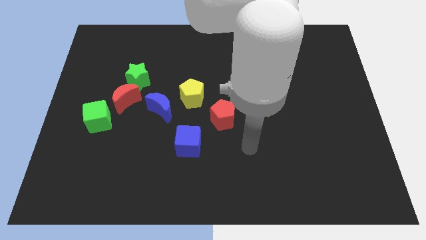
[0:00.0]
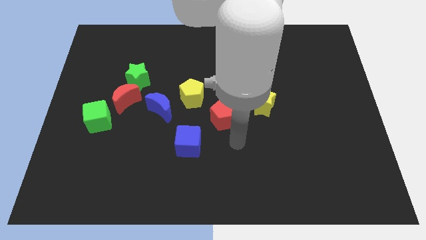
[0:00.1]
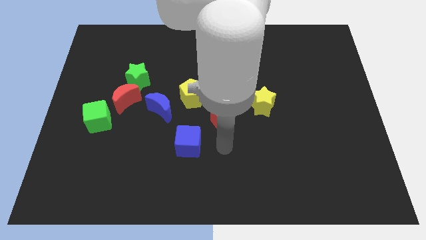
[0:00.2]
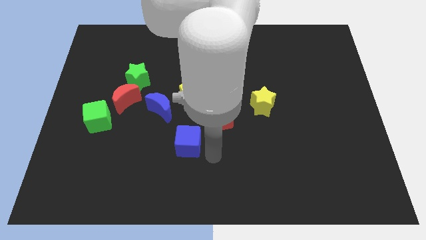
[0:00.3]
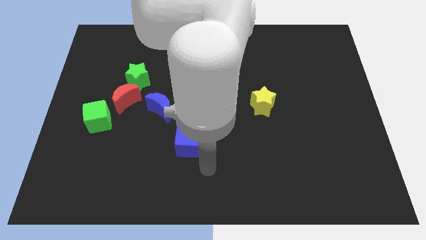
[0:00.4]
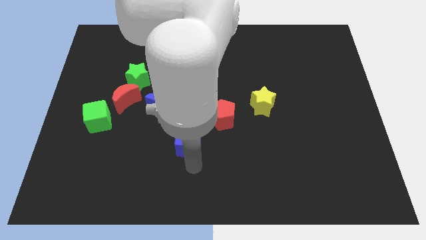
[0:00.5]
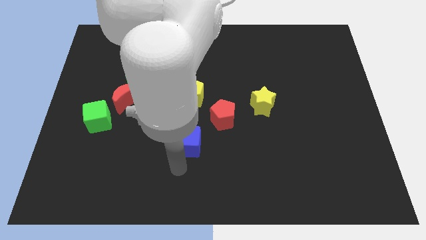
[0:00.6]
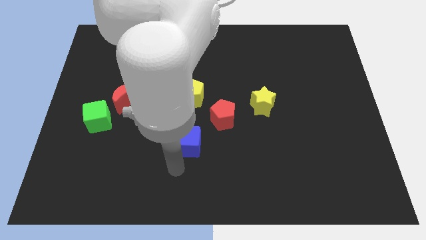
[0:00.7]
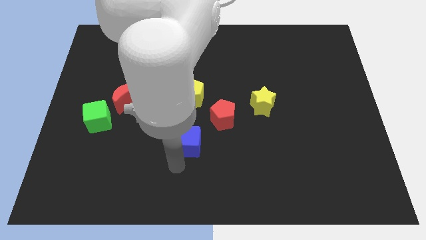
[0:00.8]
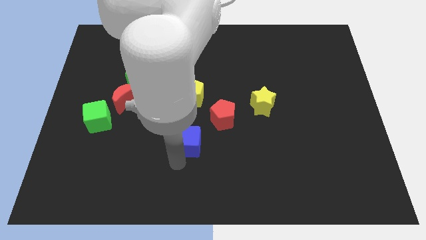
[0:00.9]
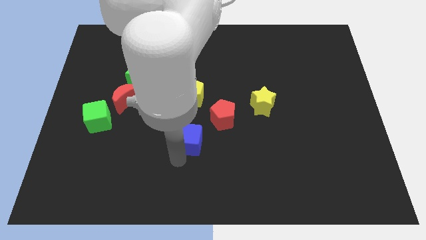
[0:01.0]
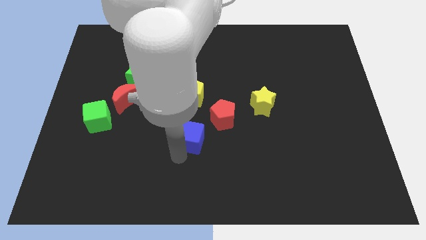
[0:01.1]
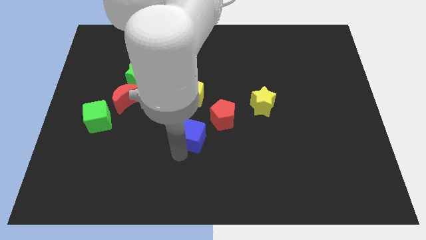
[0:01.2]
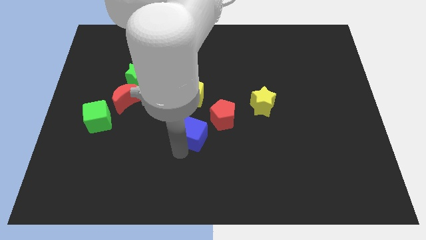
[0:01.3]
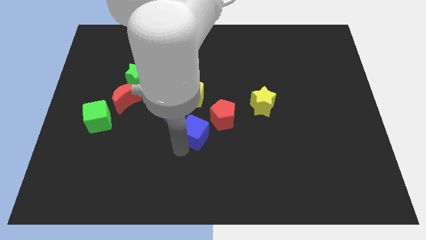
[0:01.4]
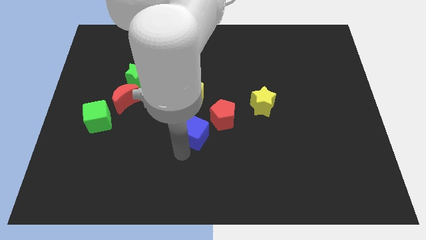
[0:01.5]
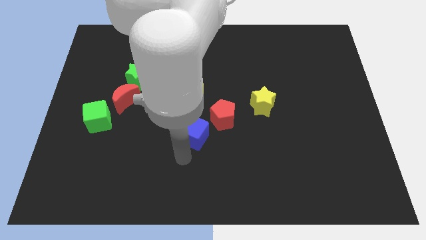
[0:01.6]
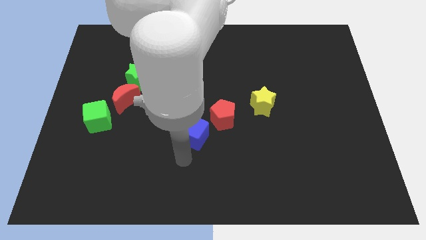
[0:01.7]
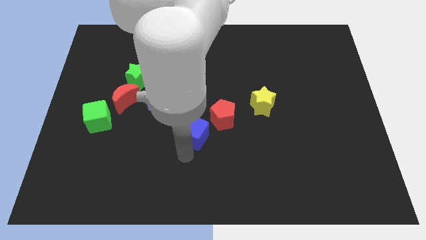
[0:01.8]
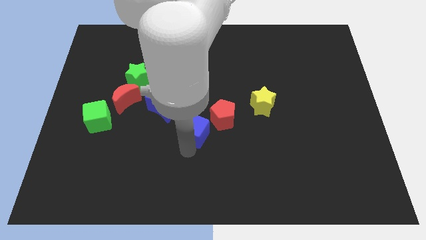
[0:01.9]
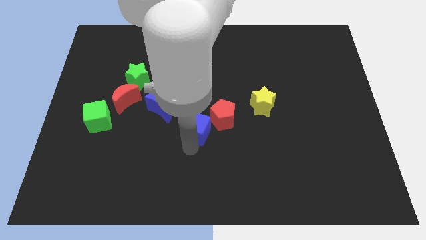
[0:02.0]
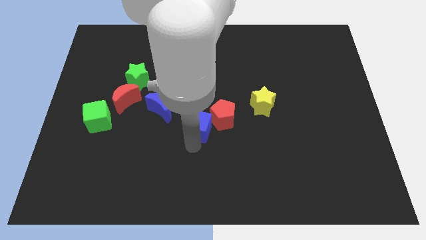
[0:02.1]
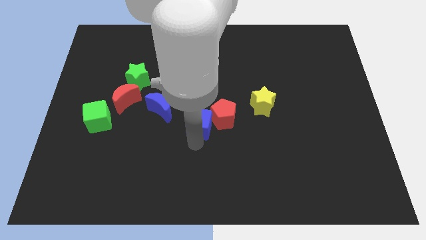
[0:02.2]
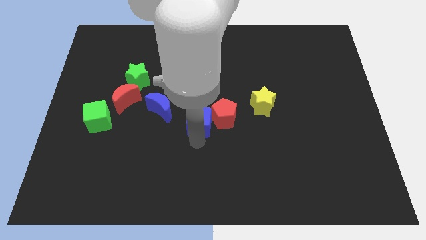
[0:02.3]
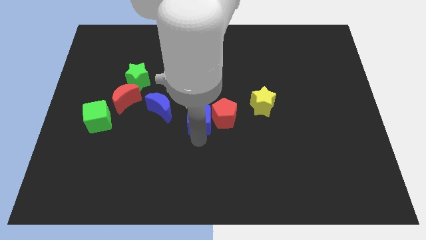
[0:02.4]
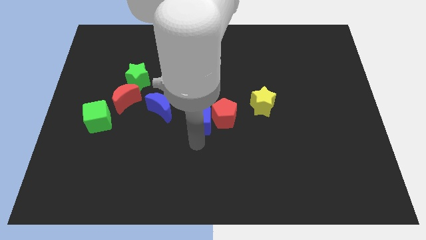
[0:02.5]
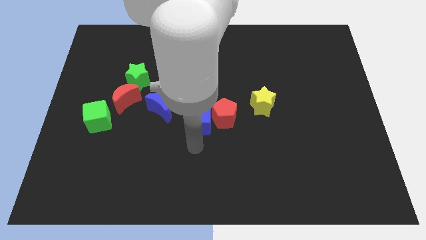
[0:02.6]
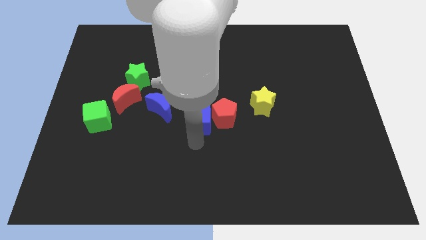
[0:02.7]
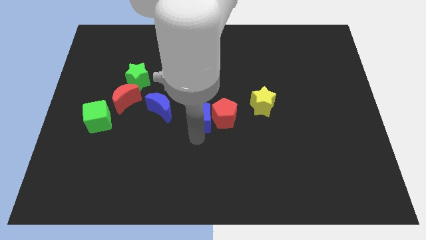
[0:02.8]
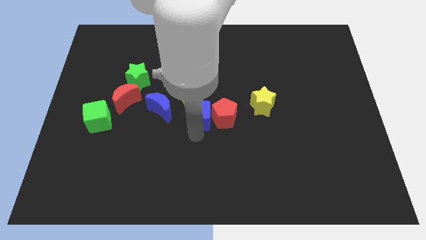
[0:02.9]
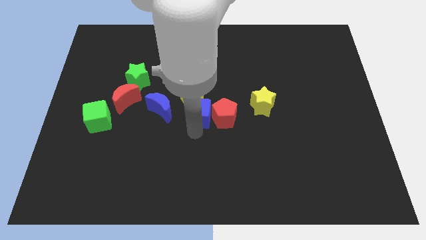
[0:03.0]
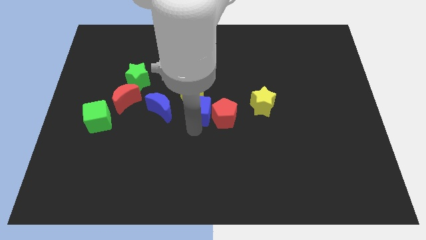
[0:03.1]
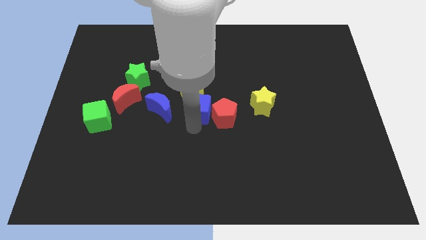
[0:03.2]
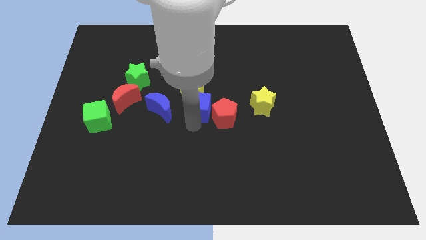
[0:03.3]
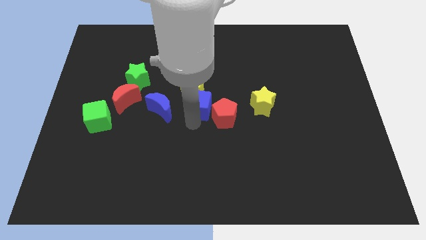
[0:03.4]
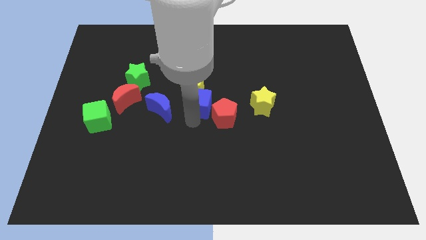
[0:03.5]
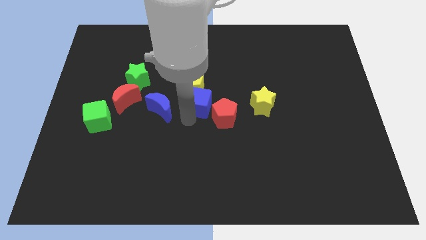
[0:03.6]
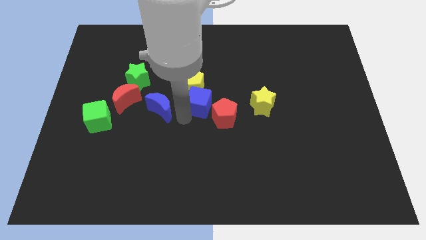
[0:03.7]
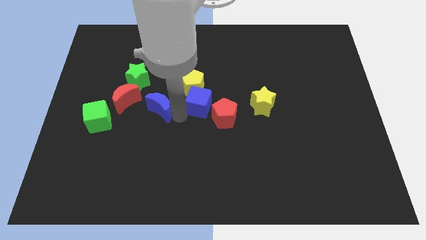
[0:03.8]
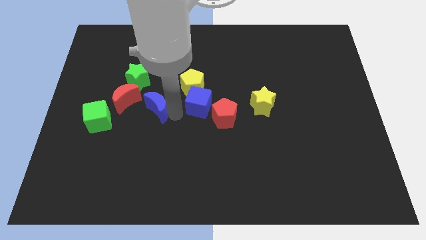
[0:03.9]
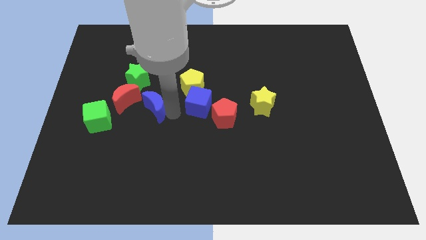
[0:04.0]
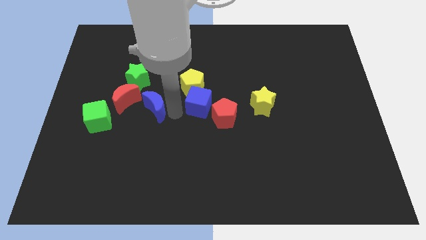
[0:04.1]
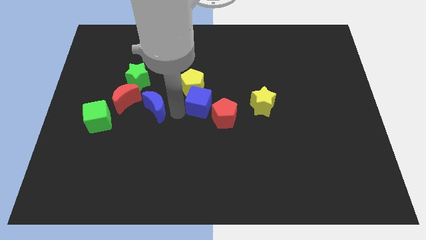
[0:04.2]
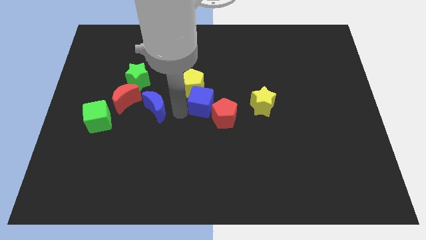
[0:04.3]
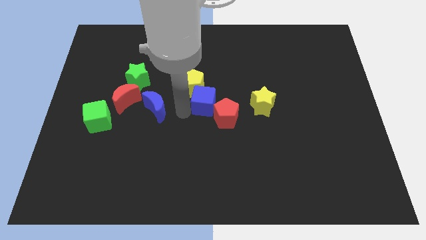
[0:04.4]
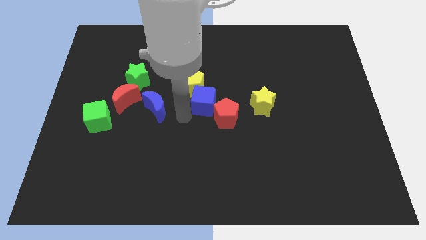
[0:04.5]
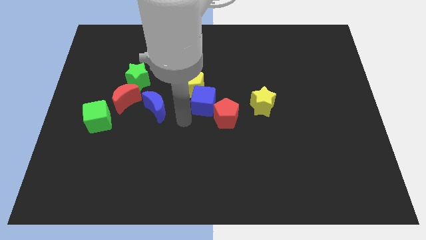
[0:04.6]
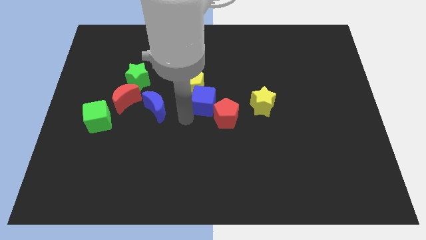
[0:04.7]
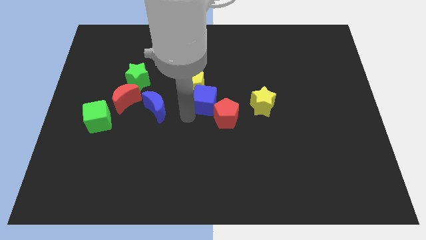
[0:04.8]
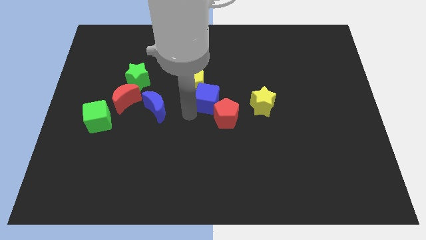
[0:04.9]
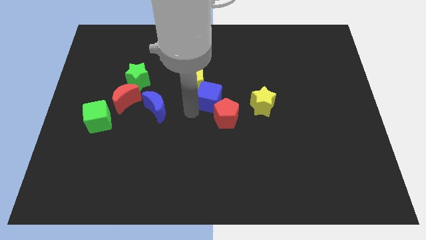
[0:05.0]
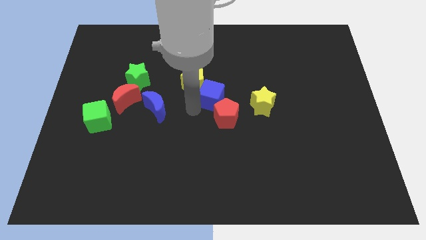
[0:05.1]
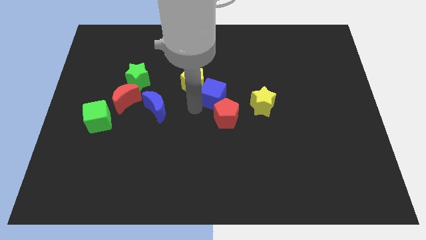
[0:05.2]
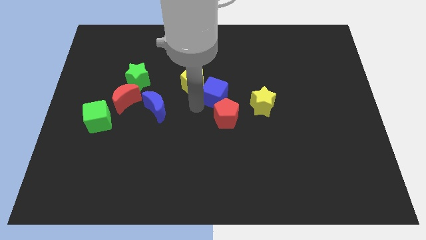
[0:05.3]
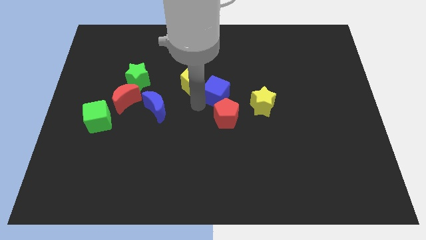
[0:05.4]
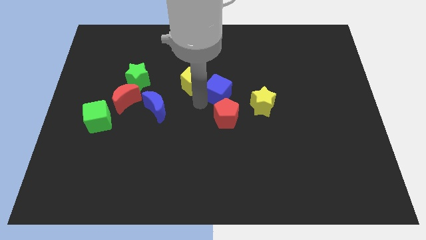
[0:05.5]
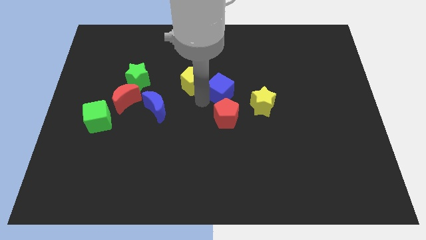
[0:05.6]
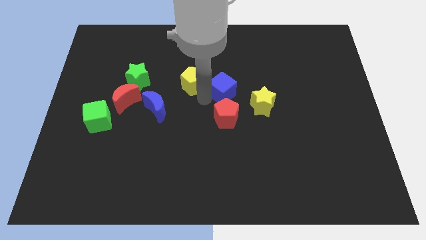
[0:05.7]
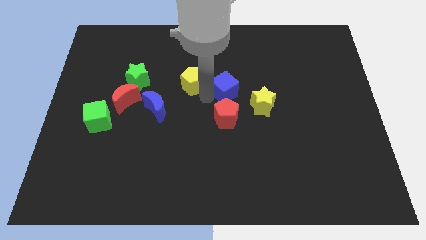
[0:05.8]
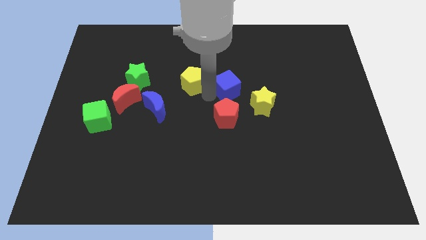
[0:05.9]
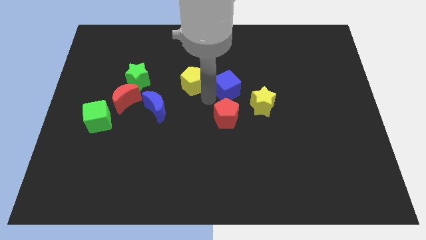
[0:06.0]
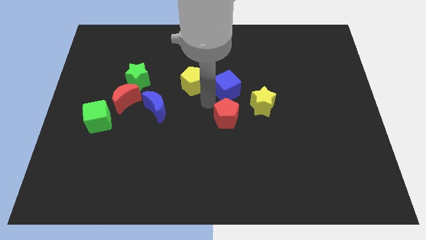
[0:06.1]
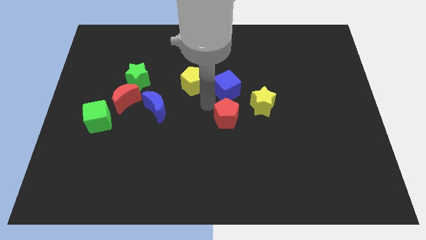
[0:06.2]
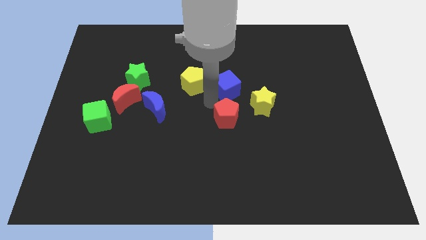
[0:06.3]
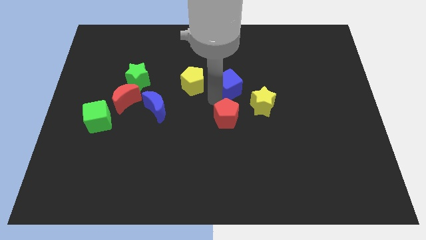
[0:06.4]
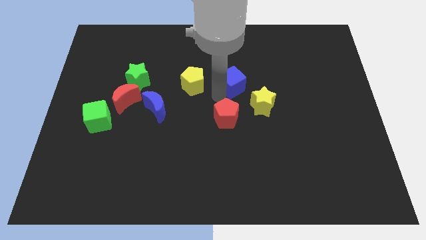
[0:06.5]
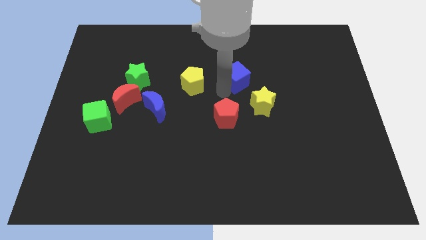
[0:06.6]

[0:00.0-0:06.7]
slide the blue cube up and to the right diagonally

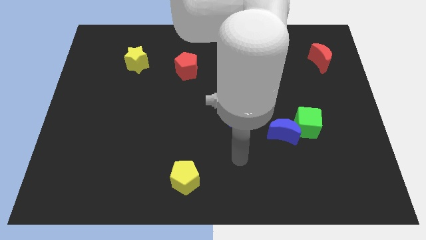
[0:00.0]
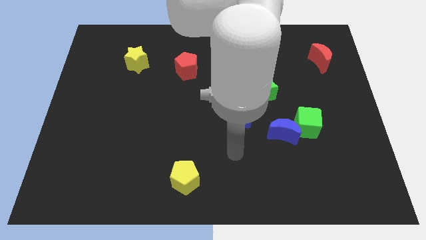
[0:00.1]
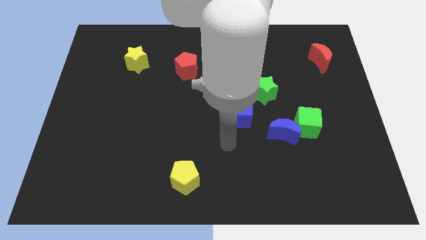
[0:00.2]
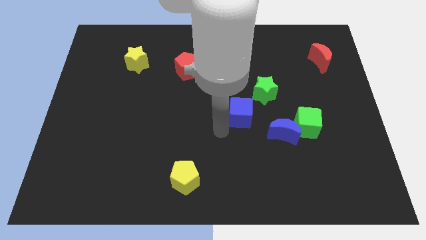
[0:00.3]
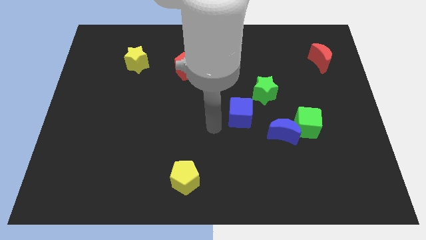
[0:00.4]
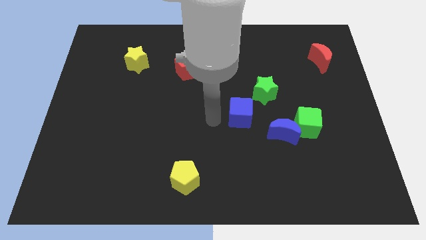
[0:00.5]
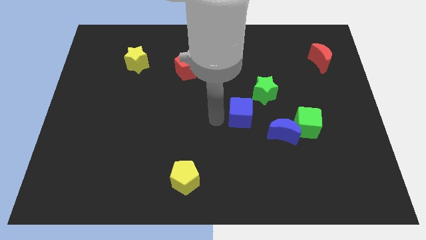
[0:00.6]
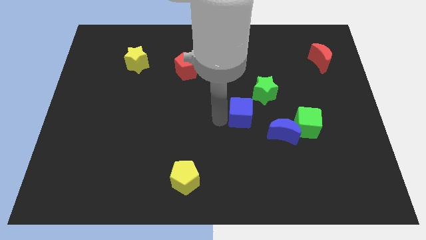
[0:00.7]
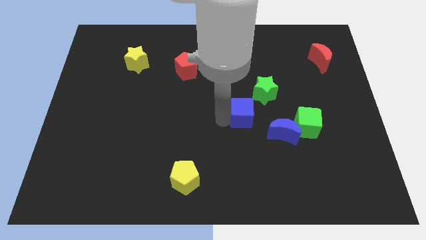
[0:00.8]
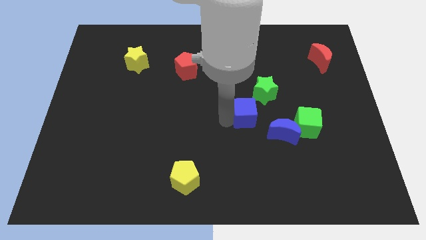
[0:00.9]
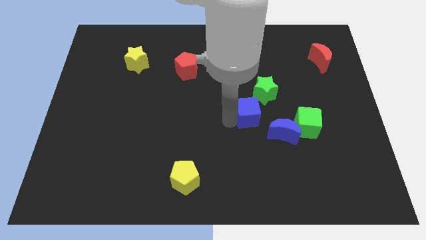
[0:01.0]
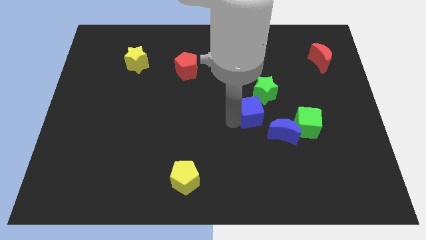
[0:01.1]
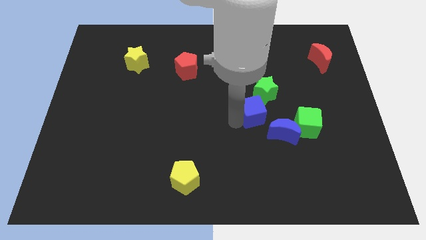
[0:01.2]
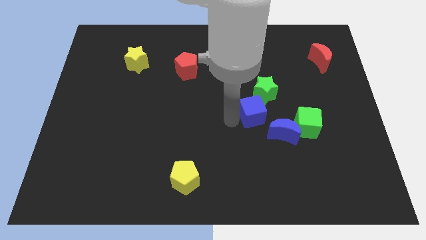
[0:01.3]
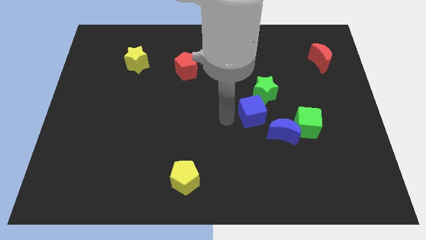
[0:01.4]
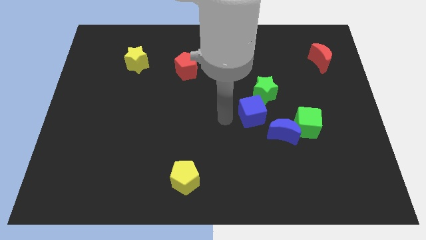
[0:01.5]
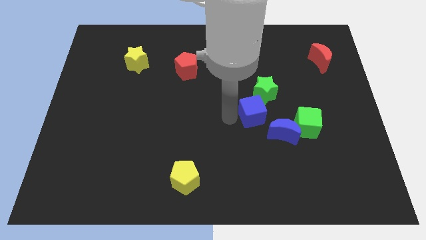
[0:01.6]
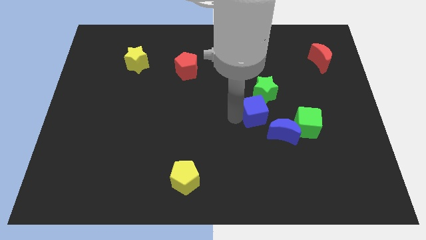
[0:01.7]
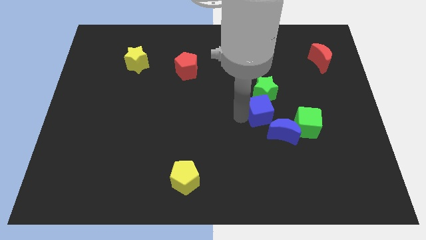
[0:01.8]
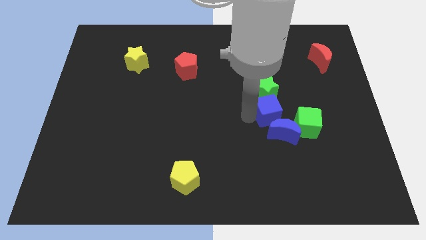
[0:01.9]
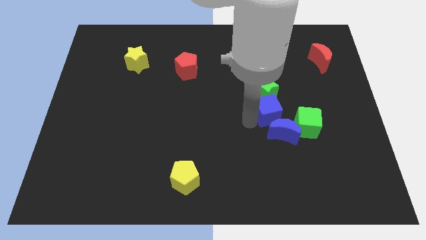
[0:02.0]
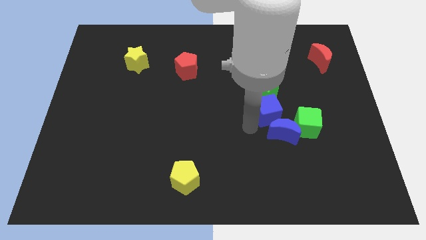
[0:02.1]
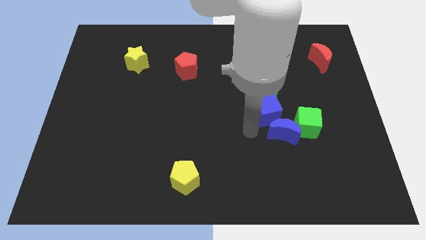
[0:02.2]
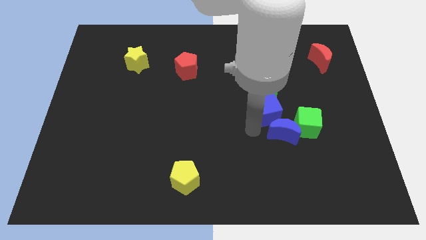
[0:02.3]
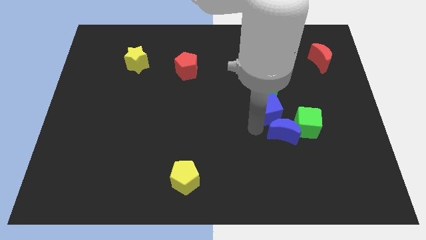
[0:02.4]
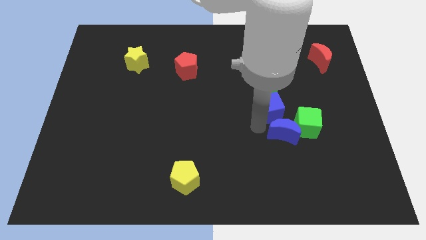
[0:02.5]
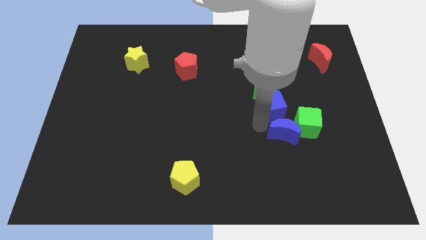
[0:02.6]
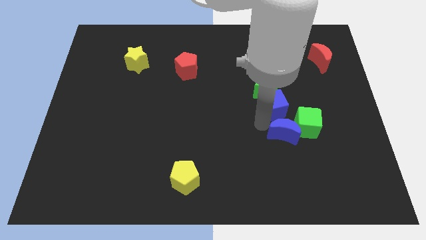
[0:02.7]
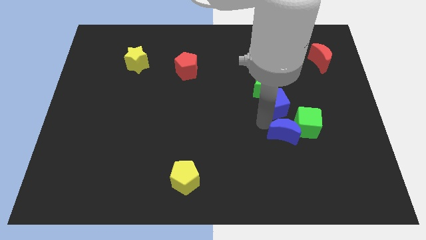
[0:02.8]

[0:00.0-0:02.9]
slightly push the blue cube upwards and right diagonally
